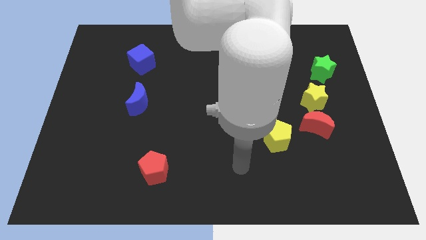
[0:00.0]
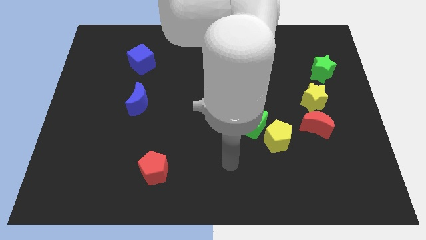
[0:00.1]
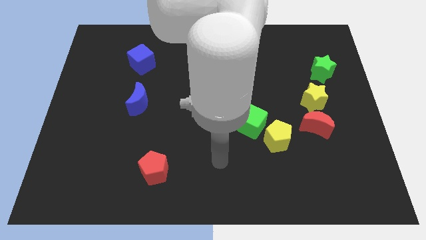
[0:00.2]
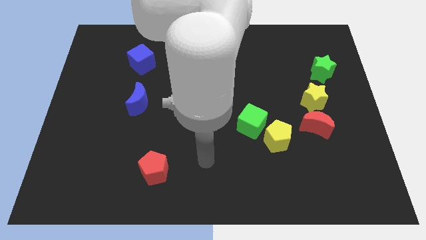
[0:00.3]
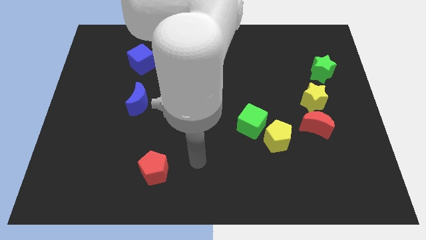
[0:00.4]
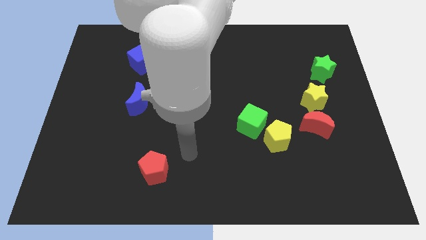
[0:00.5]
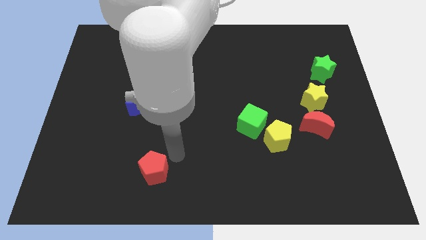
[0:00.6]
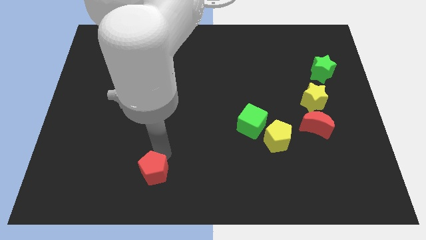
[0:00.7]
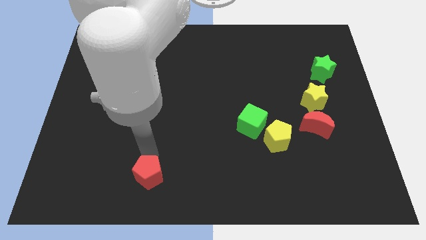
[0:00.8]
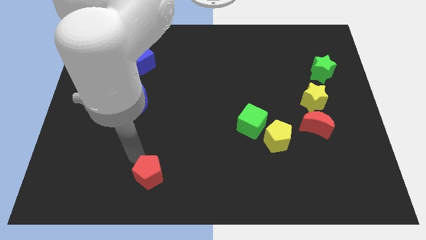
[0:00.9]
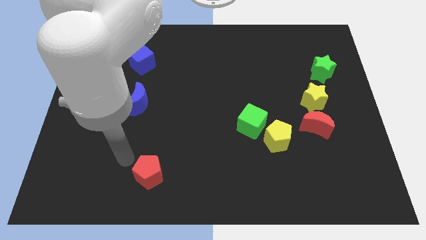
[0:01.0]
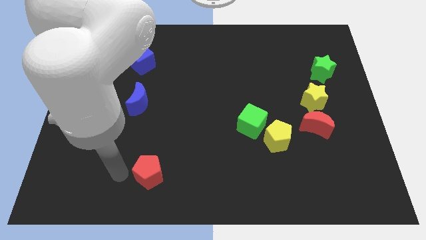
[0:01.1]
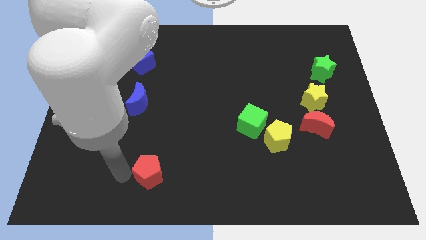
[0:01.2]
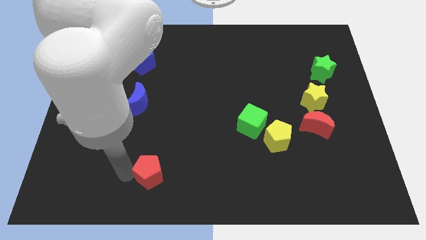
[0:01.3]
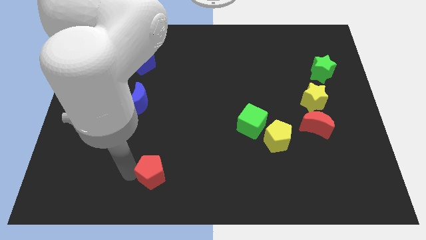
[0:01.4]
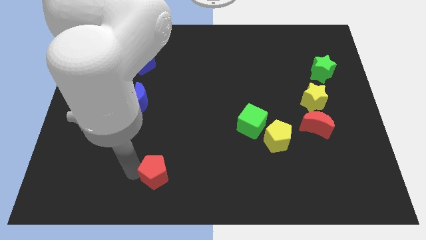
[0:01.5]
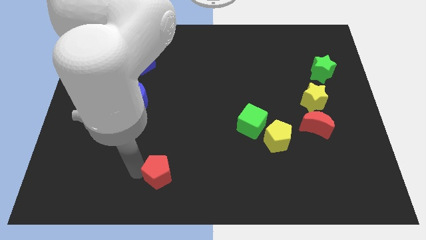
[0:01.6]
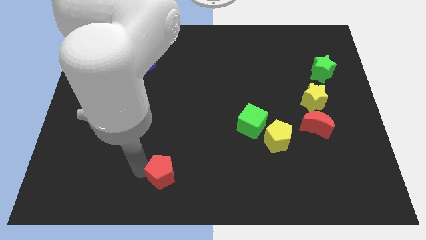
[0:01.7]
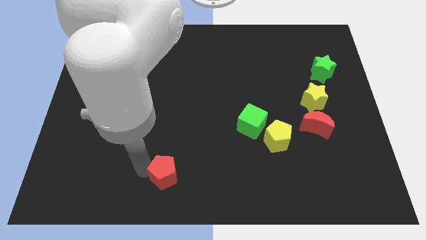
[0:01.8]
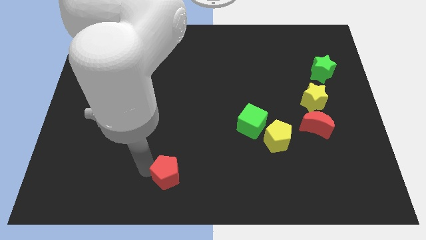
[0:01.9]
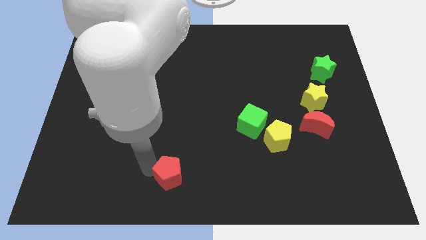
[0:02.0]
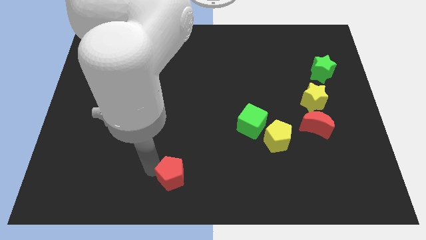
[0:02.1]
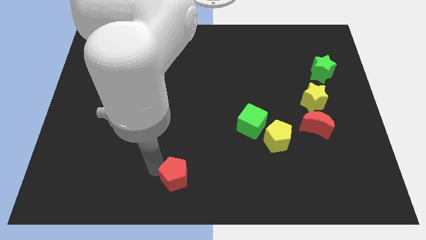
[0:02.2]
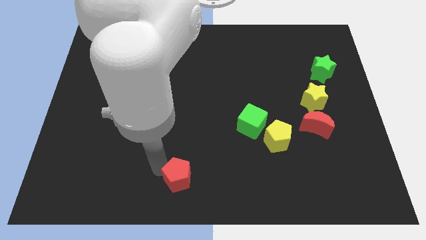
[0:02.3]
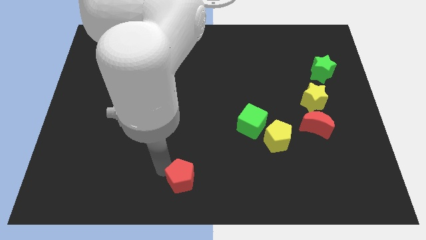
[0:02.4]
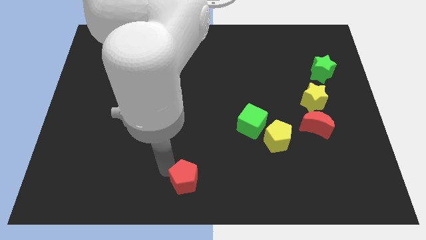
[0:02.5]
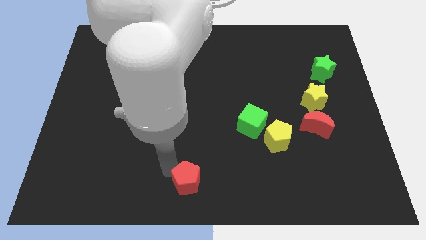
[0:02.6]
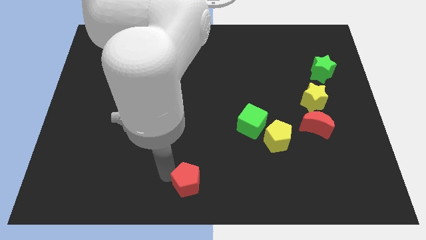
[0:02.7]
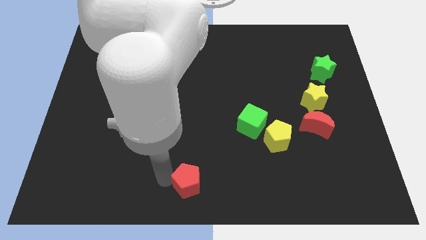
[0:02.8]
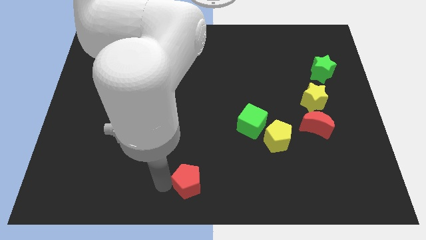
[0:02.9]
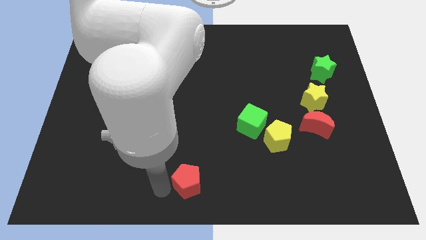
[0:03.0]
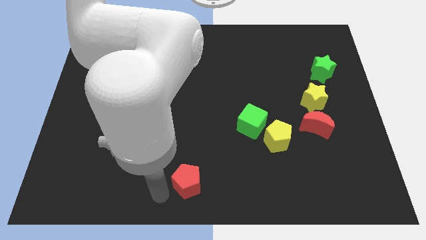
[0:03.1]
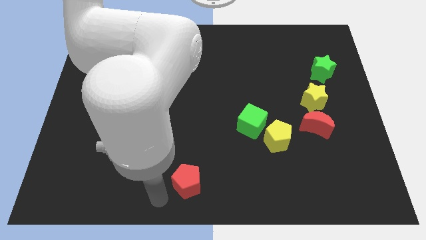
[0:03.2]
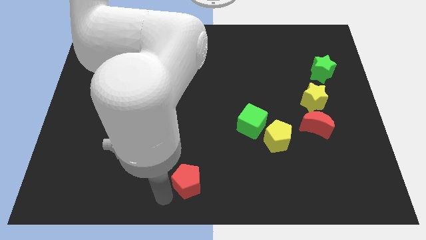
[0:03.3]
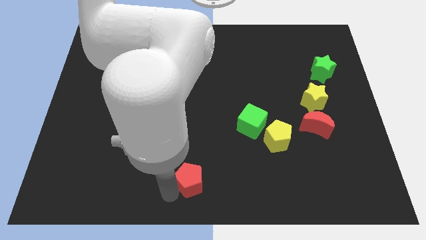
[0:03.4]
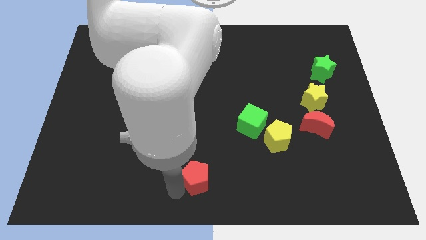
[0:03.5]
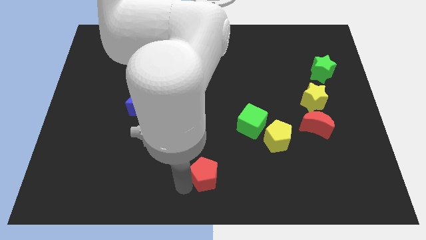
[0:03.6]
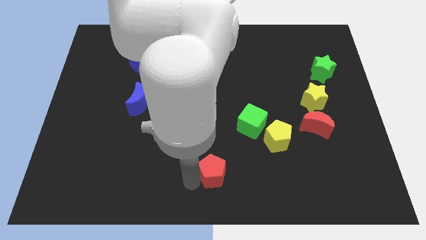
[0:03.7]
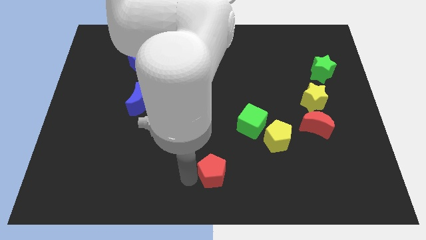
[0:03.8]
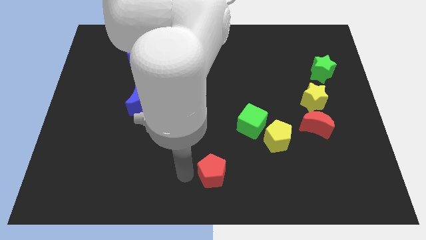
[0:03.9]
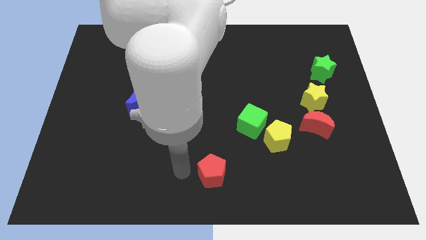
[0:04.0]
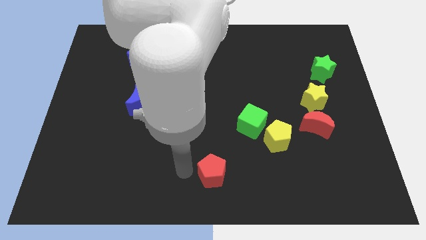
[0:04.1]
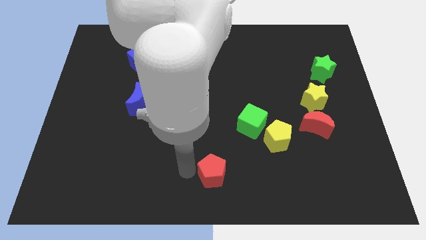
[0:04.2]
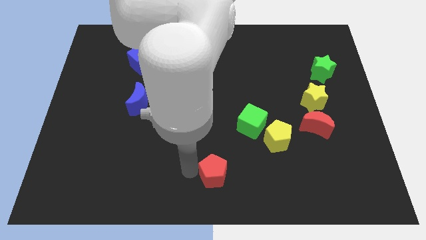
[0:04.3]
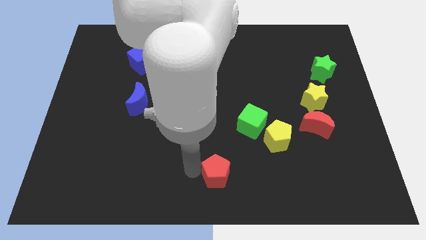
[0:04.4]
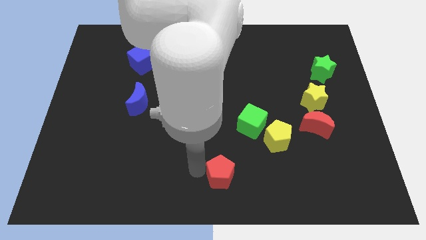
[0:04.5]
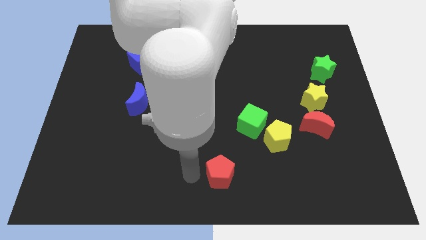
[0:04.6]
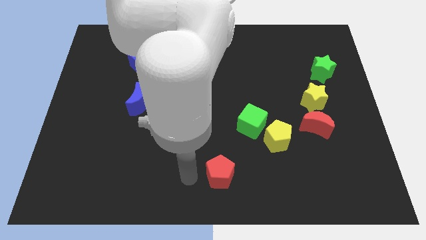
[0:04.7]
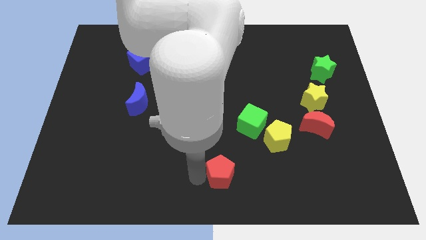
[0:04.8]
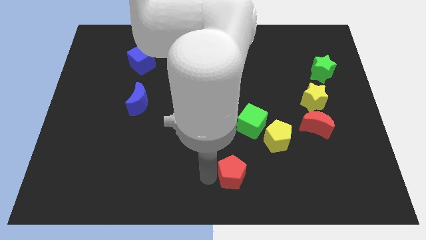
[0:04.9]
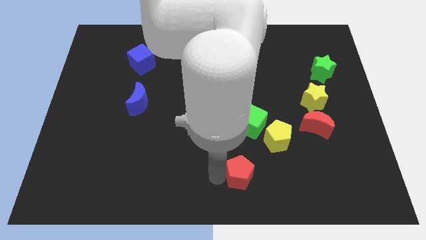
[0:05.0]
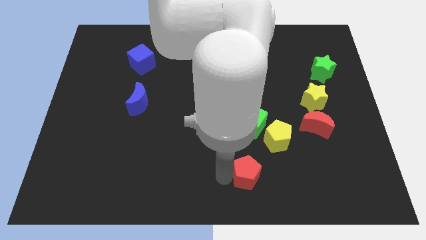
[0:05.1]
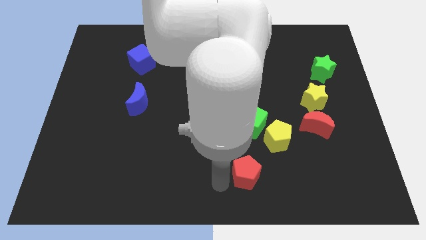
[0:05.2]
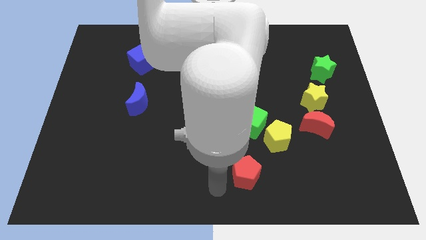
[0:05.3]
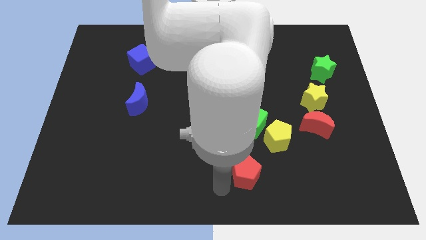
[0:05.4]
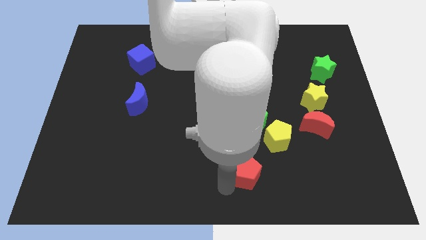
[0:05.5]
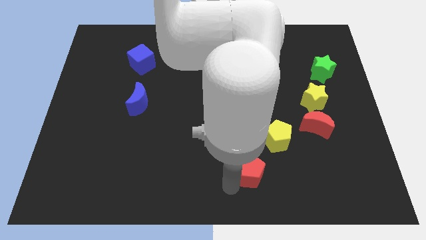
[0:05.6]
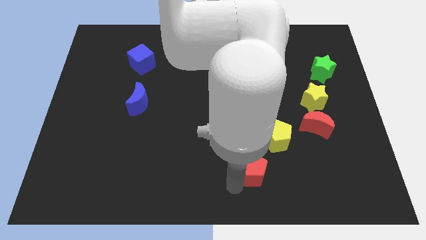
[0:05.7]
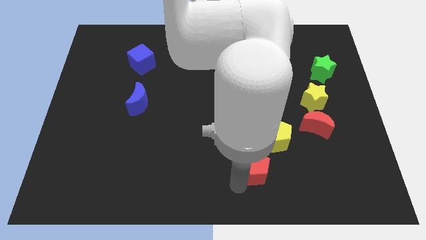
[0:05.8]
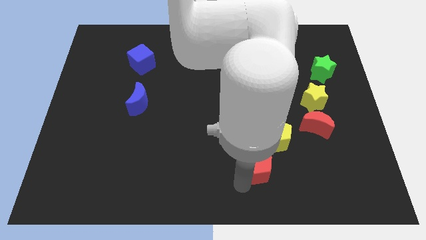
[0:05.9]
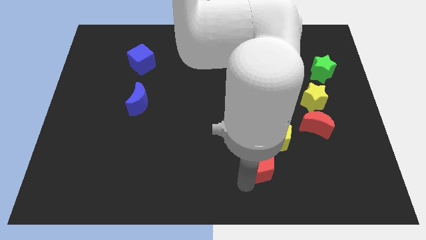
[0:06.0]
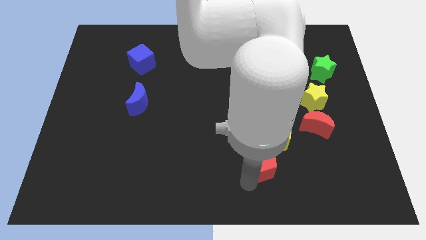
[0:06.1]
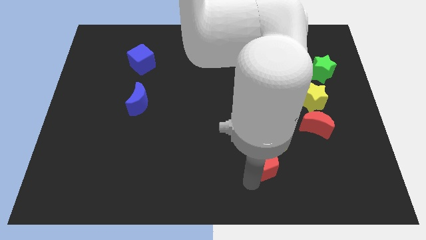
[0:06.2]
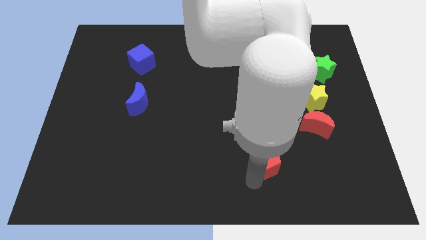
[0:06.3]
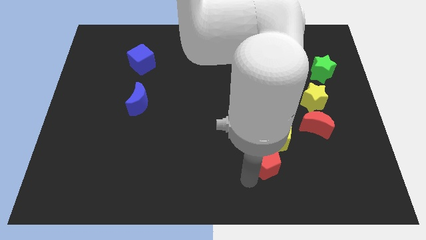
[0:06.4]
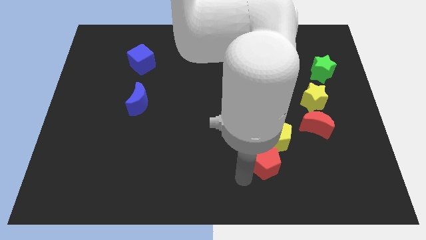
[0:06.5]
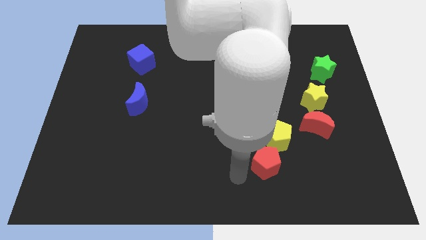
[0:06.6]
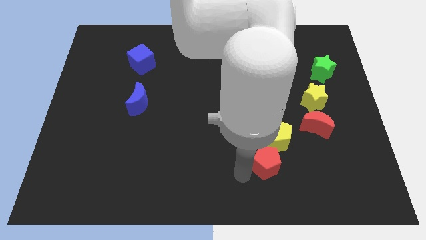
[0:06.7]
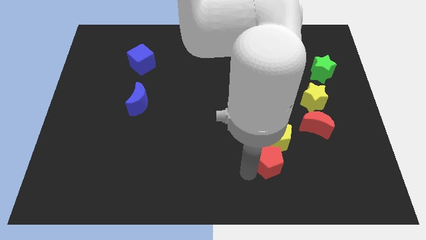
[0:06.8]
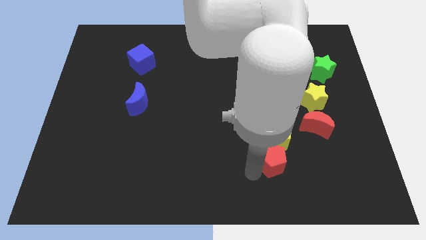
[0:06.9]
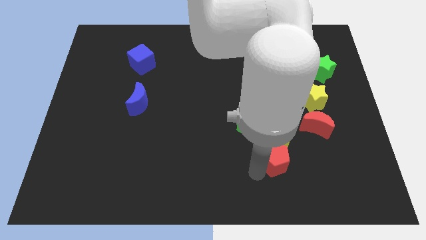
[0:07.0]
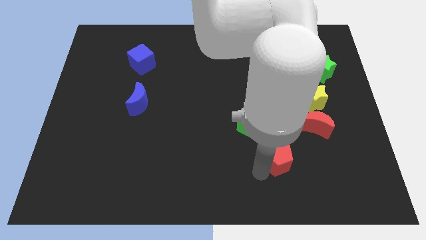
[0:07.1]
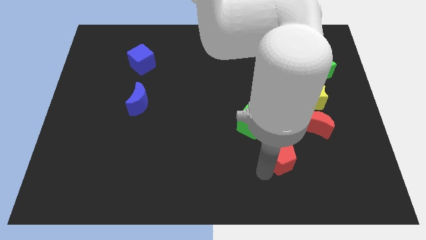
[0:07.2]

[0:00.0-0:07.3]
slide the red pentagon diagonally down and to the left of the red moon
